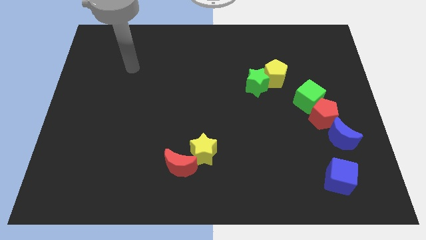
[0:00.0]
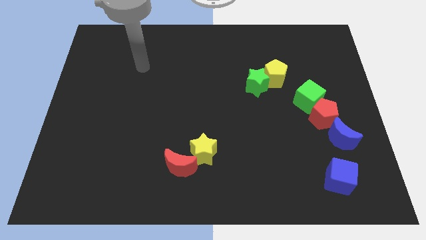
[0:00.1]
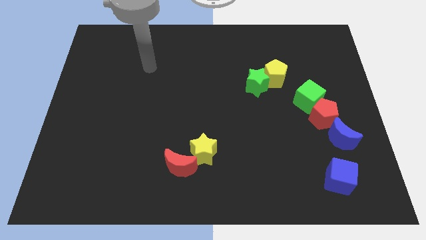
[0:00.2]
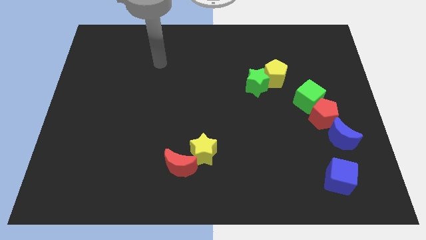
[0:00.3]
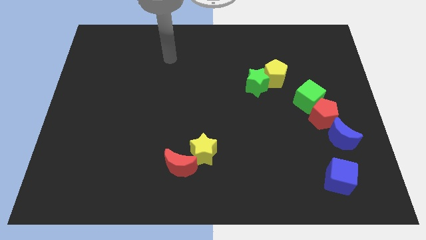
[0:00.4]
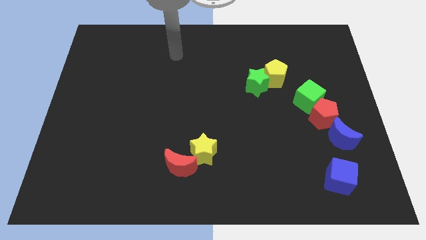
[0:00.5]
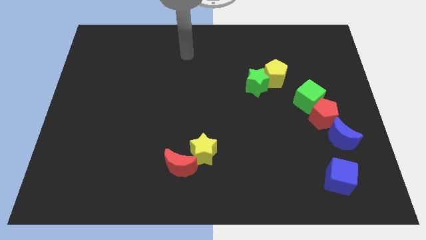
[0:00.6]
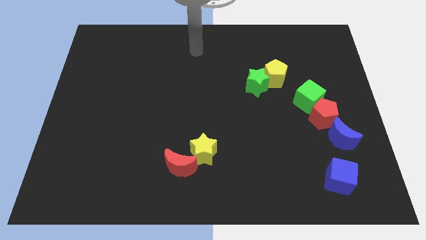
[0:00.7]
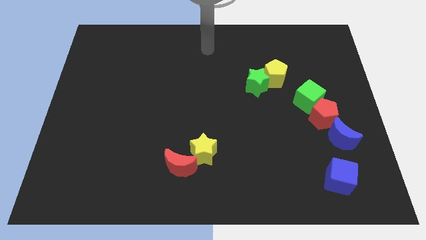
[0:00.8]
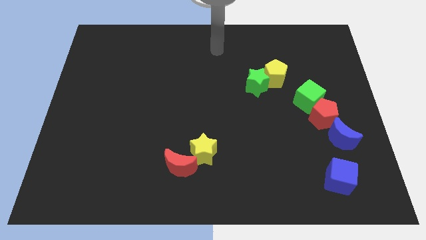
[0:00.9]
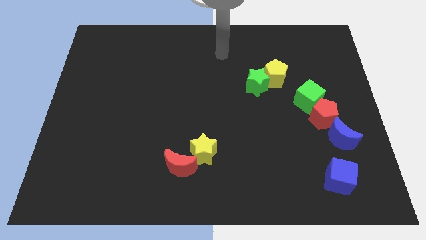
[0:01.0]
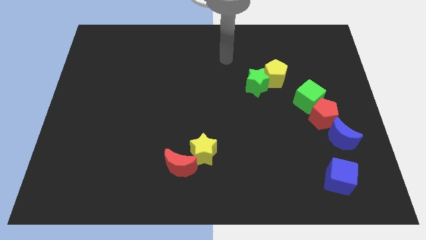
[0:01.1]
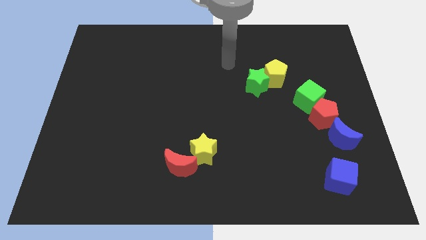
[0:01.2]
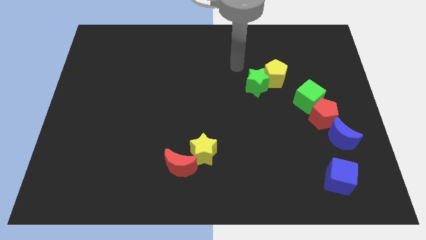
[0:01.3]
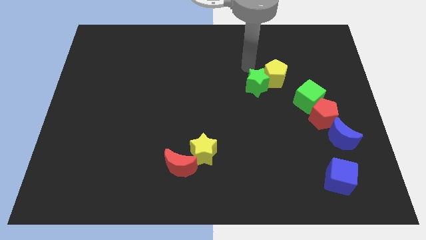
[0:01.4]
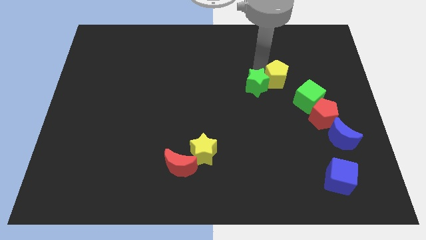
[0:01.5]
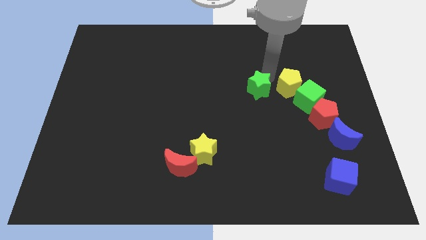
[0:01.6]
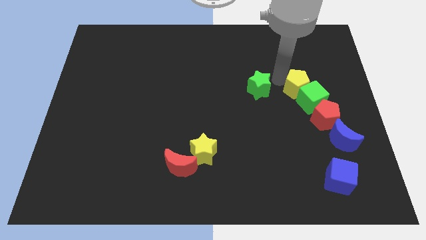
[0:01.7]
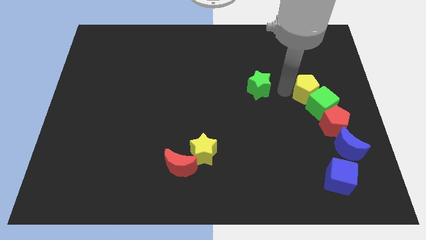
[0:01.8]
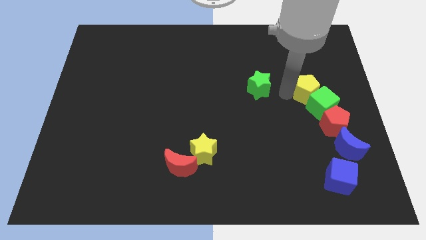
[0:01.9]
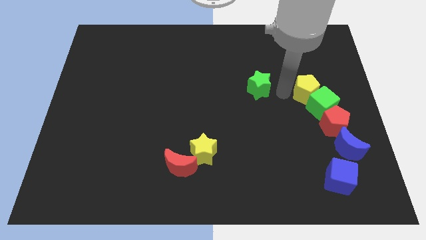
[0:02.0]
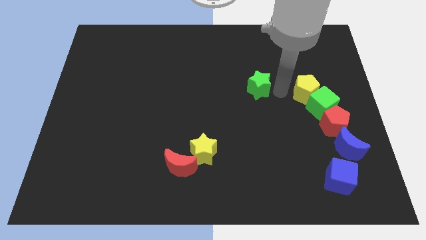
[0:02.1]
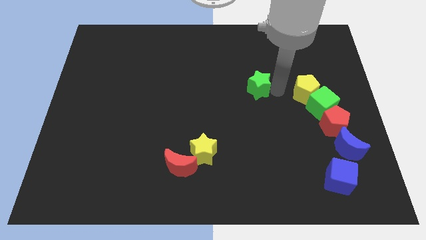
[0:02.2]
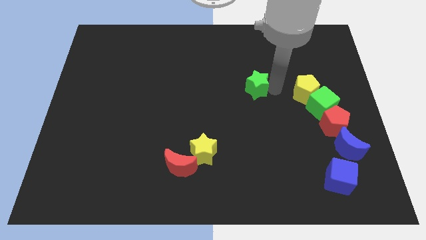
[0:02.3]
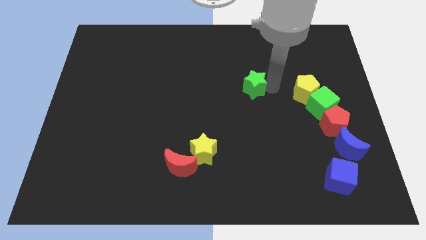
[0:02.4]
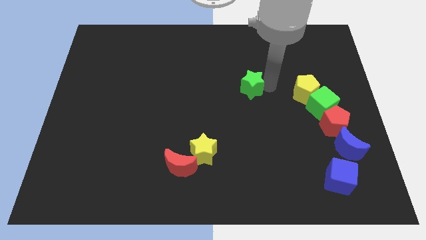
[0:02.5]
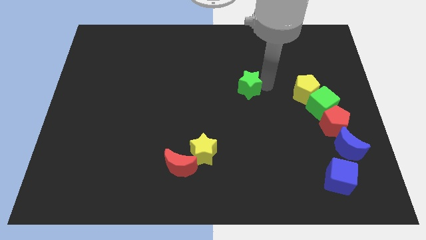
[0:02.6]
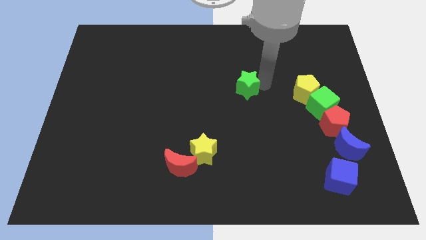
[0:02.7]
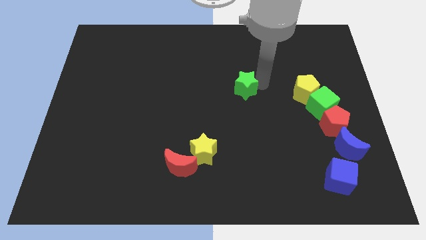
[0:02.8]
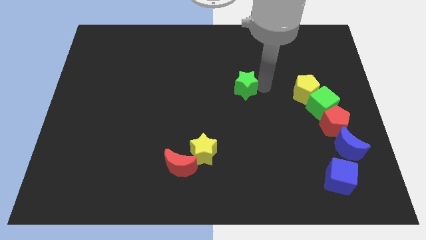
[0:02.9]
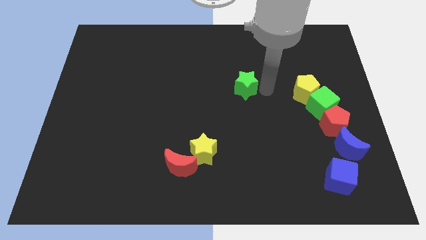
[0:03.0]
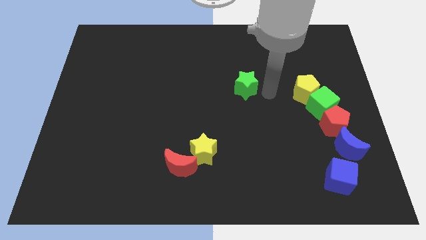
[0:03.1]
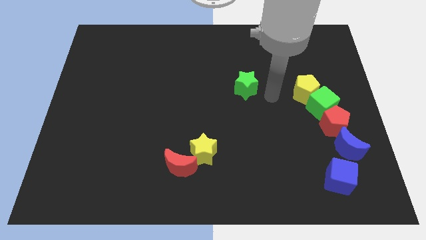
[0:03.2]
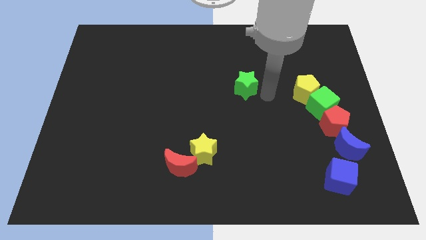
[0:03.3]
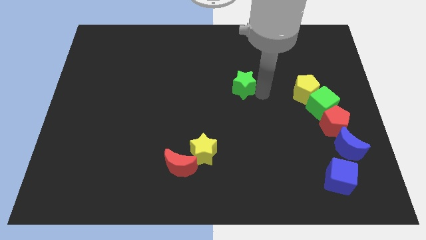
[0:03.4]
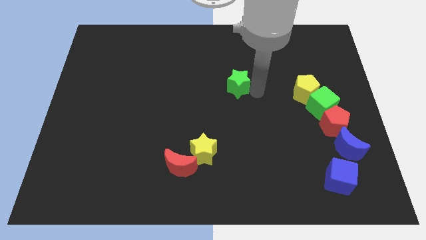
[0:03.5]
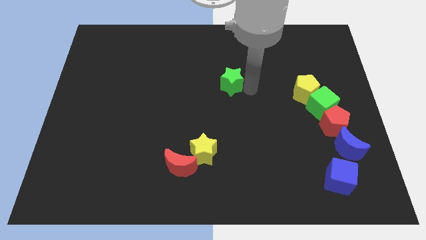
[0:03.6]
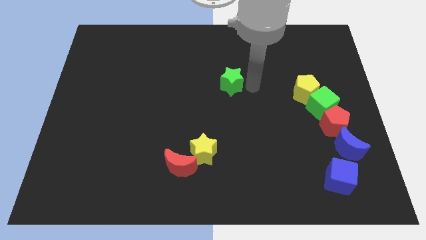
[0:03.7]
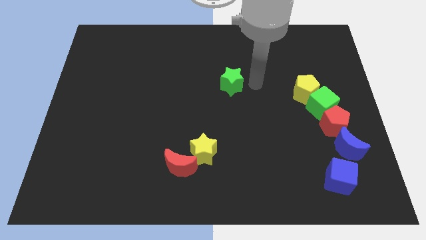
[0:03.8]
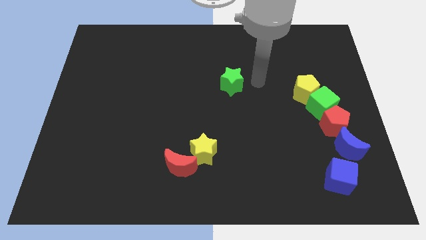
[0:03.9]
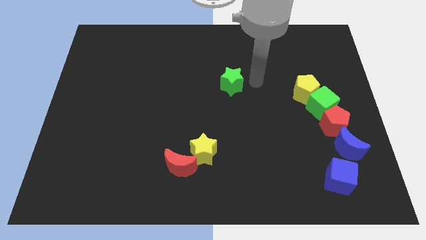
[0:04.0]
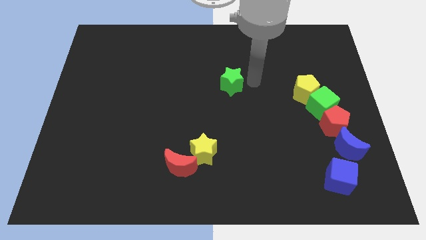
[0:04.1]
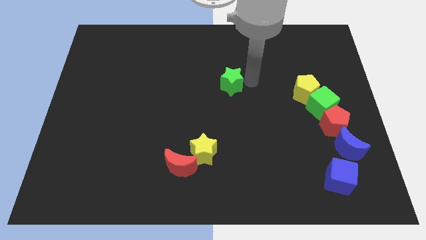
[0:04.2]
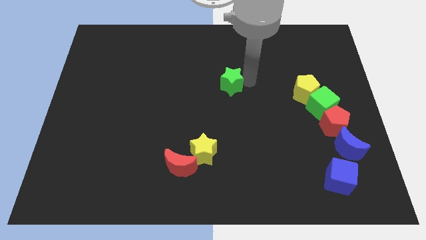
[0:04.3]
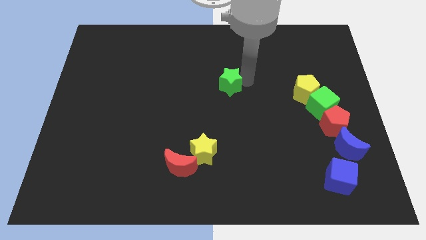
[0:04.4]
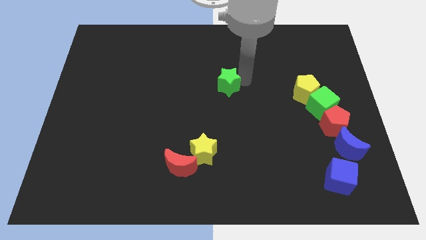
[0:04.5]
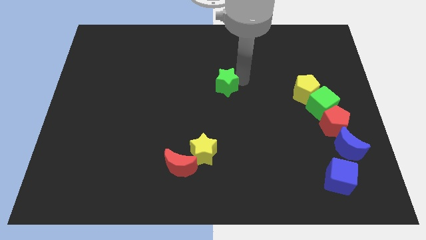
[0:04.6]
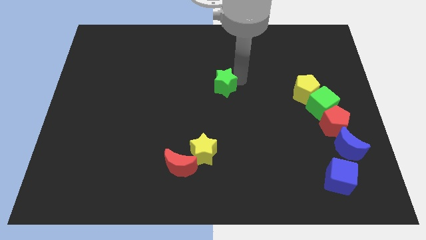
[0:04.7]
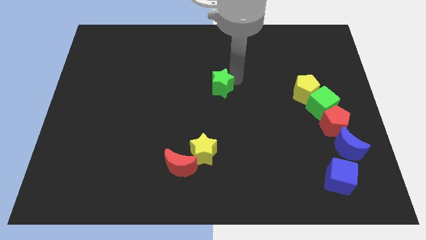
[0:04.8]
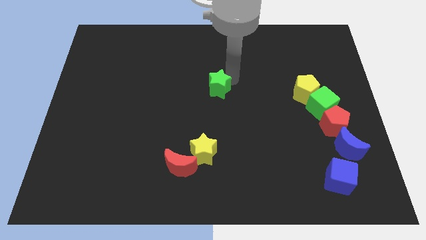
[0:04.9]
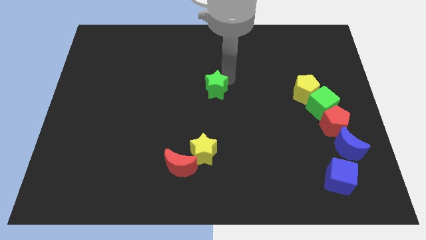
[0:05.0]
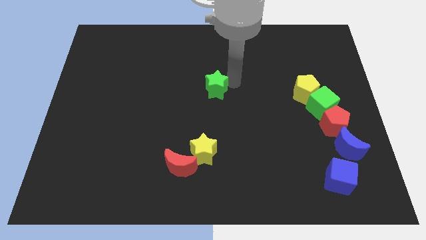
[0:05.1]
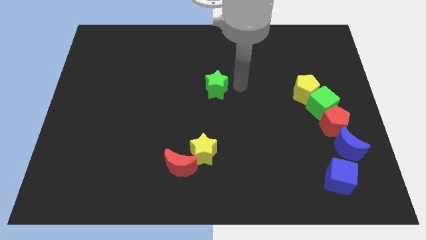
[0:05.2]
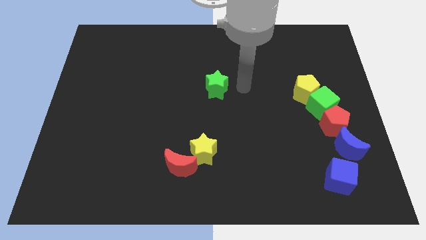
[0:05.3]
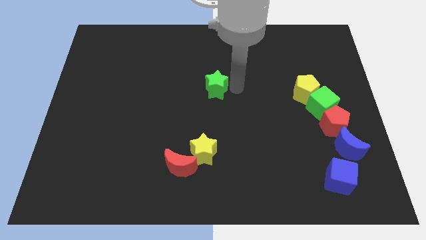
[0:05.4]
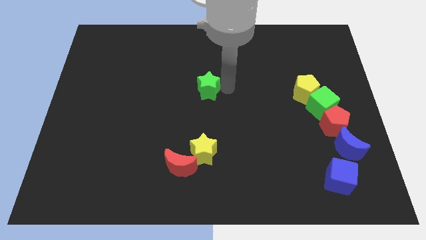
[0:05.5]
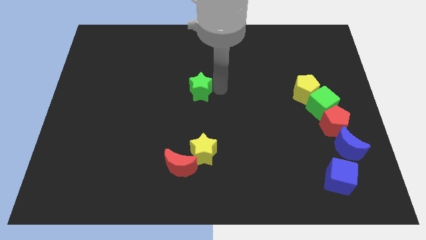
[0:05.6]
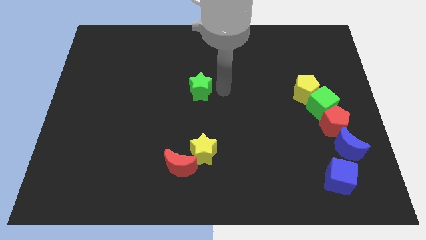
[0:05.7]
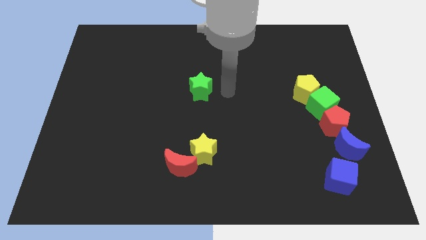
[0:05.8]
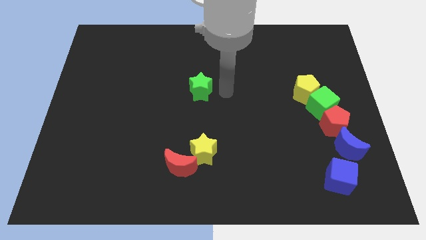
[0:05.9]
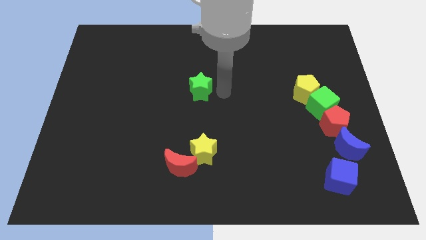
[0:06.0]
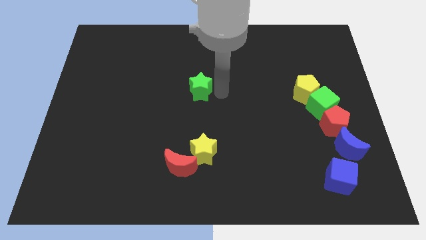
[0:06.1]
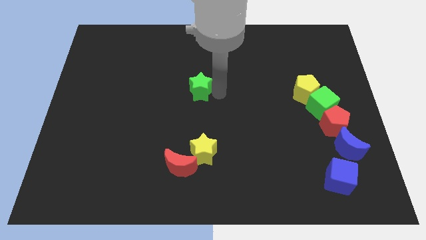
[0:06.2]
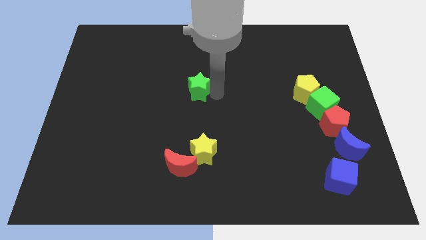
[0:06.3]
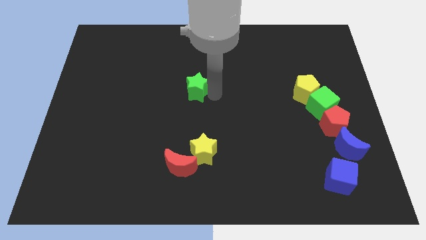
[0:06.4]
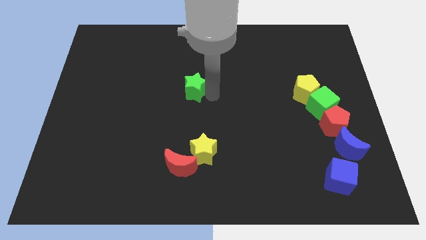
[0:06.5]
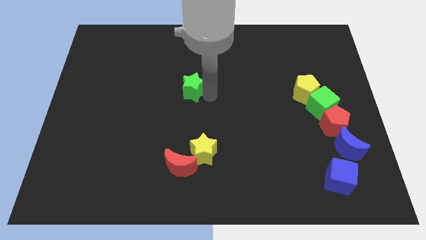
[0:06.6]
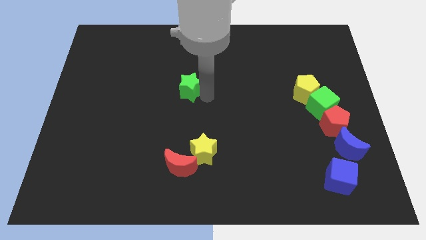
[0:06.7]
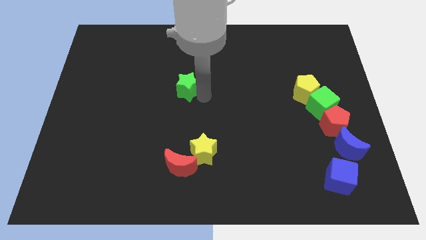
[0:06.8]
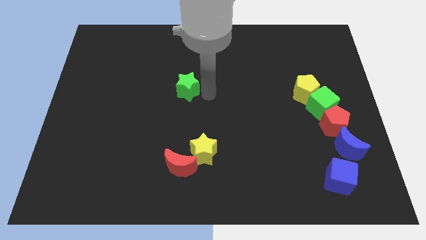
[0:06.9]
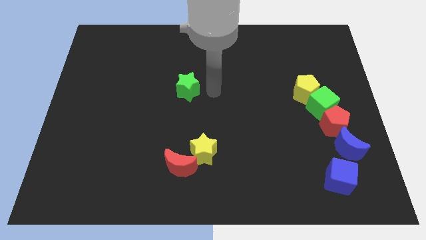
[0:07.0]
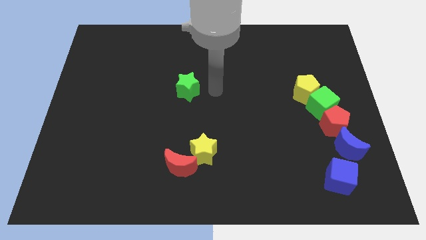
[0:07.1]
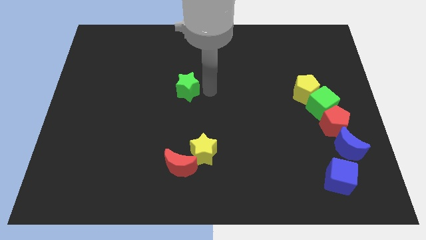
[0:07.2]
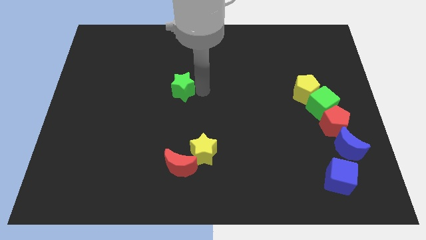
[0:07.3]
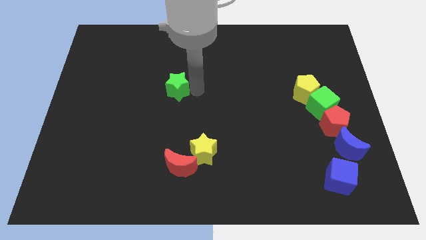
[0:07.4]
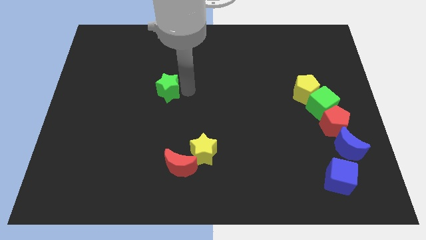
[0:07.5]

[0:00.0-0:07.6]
push the green star left

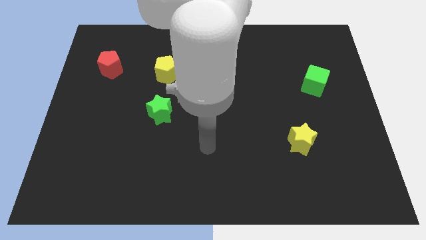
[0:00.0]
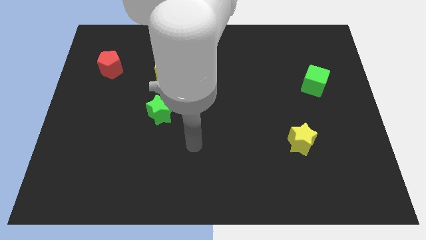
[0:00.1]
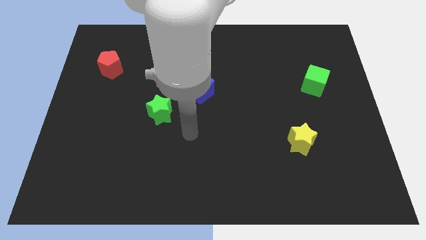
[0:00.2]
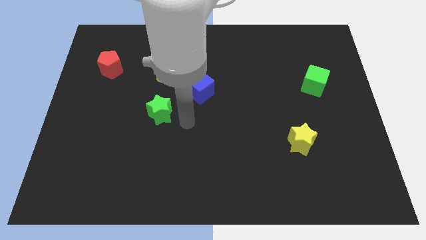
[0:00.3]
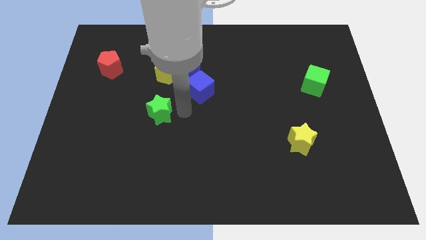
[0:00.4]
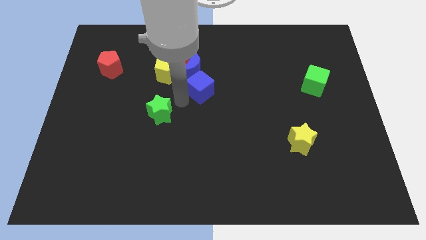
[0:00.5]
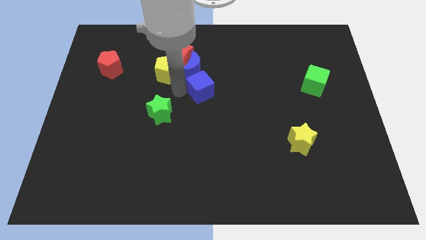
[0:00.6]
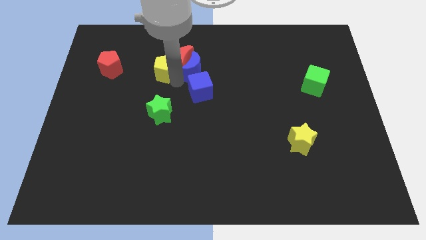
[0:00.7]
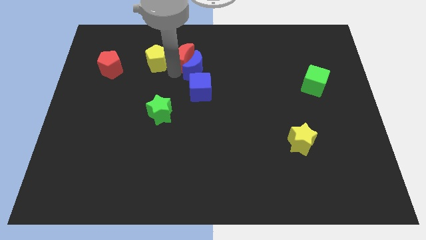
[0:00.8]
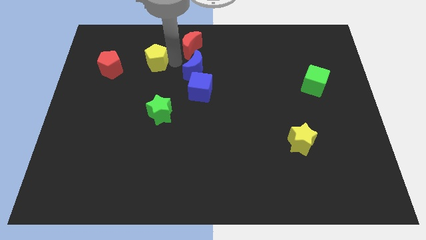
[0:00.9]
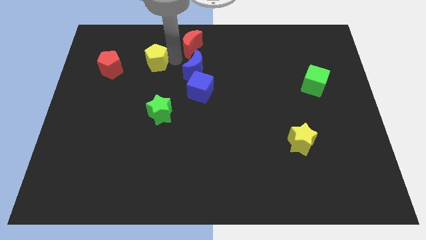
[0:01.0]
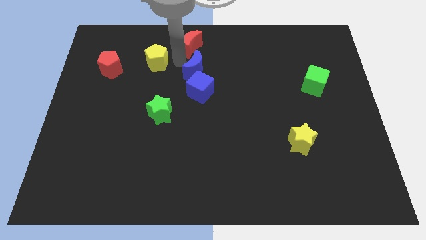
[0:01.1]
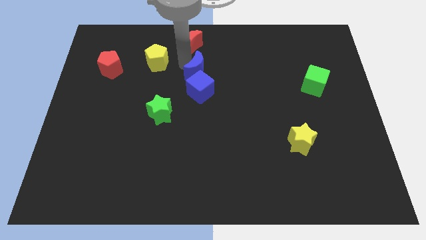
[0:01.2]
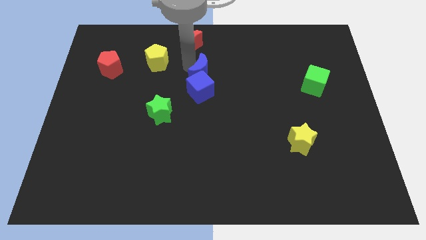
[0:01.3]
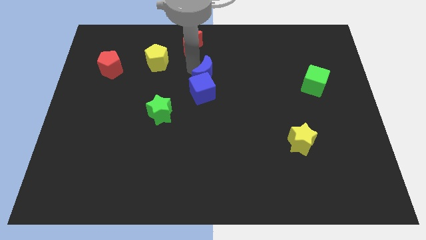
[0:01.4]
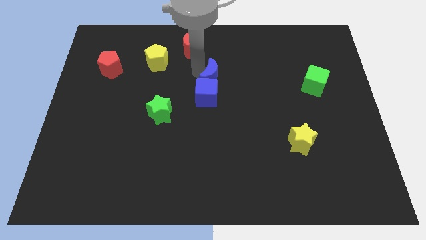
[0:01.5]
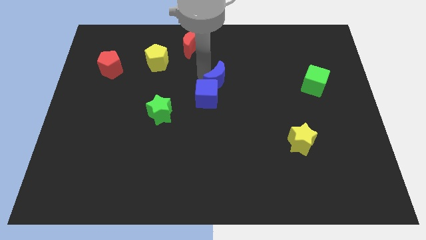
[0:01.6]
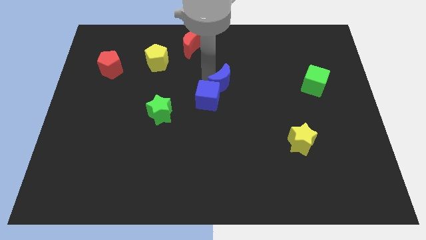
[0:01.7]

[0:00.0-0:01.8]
move the blue moon downwards and to the right a little
